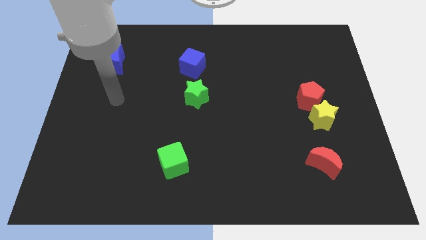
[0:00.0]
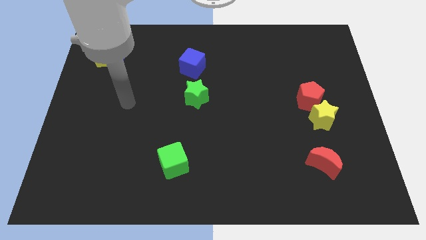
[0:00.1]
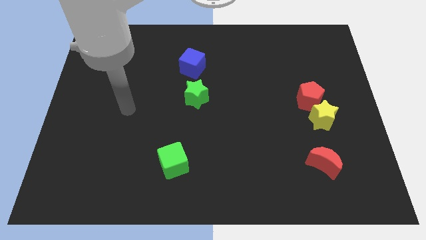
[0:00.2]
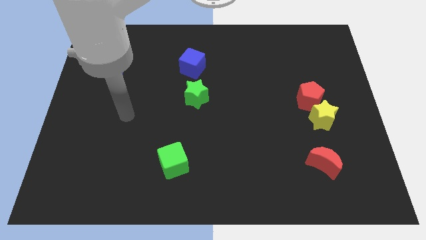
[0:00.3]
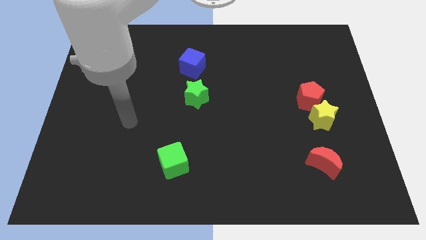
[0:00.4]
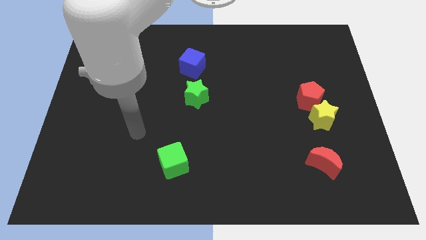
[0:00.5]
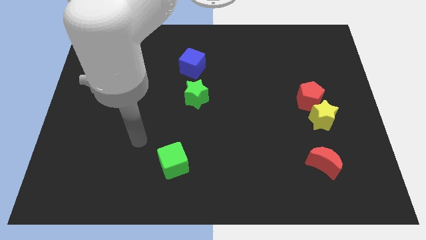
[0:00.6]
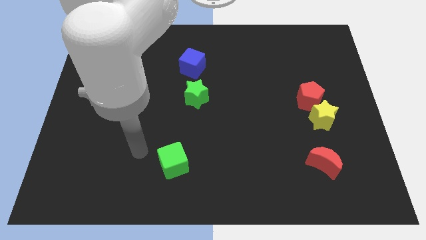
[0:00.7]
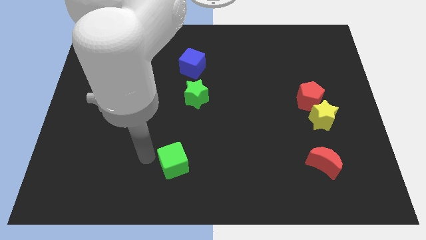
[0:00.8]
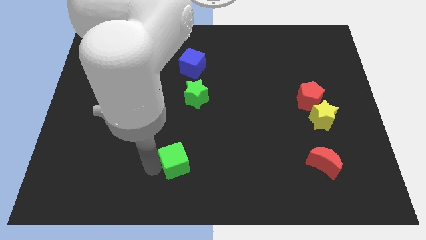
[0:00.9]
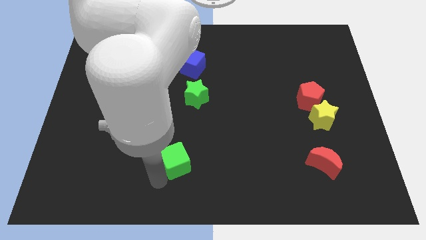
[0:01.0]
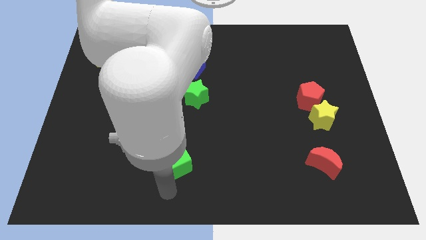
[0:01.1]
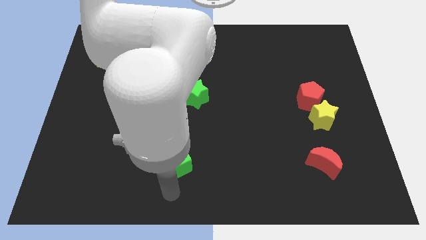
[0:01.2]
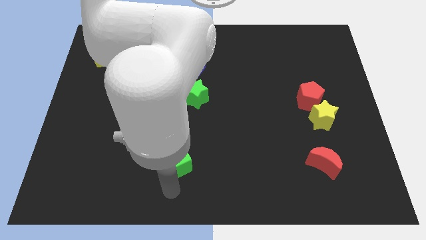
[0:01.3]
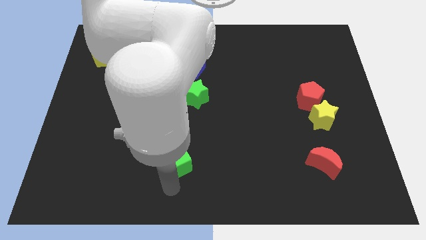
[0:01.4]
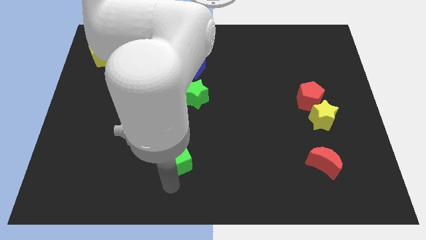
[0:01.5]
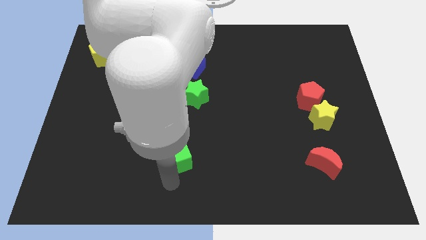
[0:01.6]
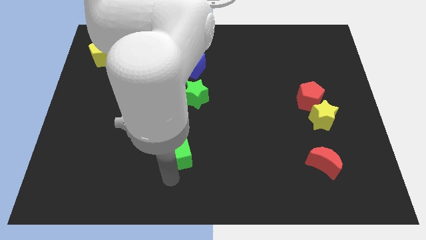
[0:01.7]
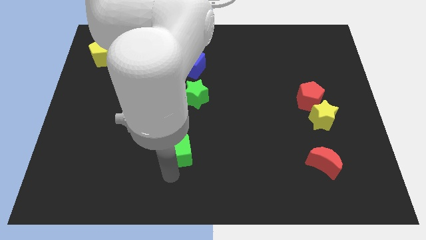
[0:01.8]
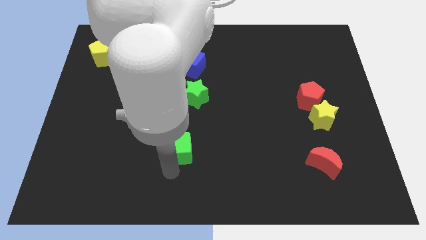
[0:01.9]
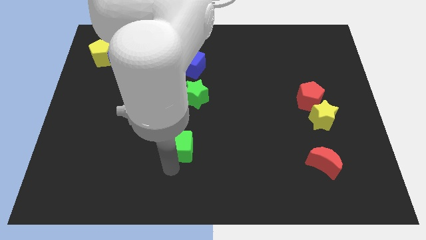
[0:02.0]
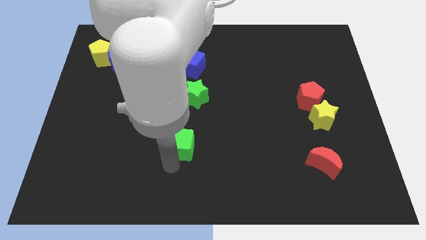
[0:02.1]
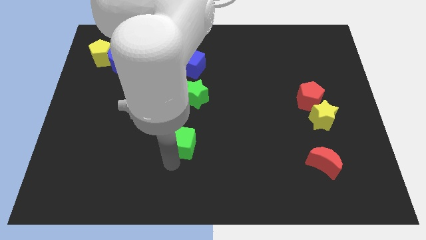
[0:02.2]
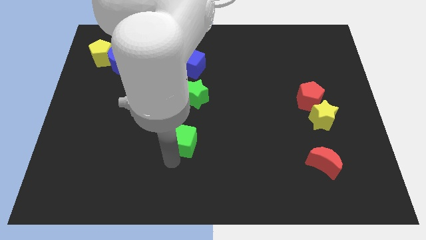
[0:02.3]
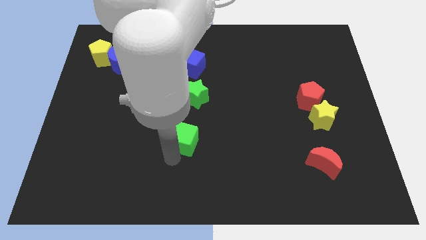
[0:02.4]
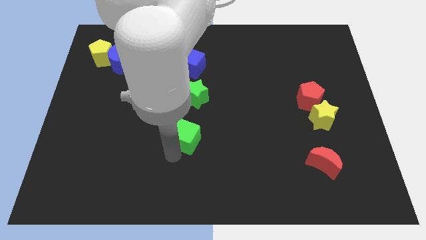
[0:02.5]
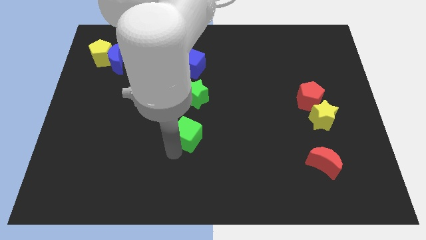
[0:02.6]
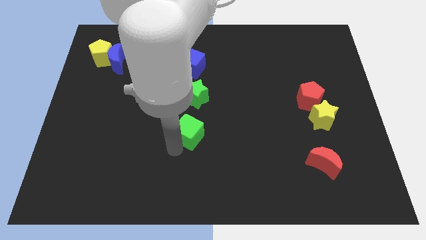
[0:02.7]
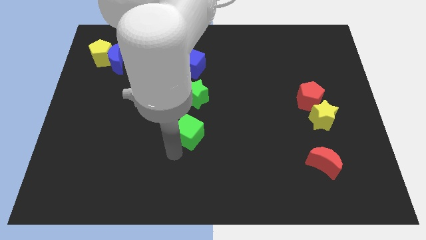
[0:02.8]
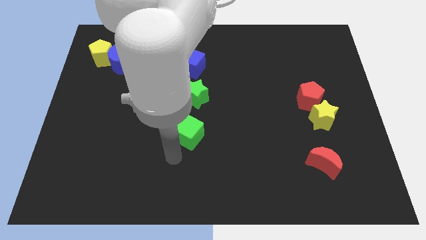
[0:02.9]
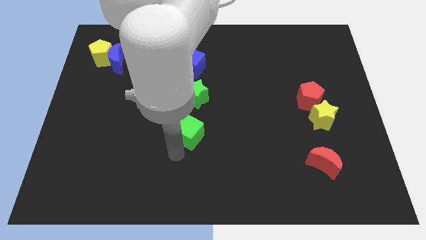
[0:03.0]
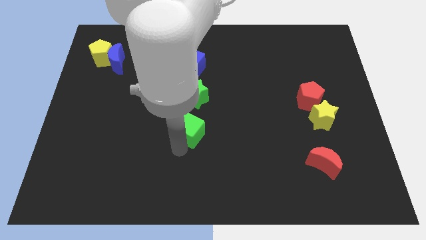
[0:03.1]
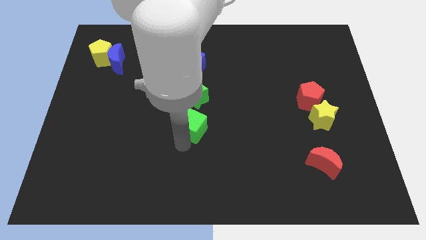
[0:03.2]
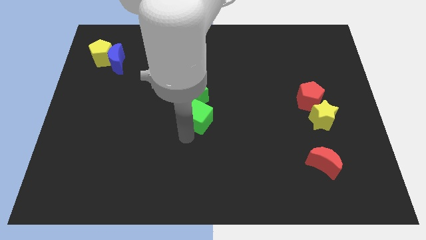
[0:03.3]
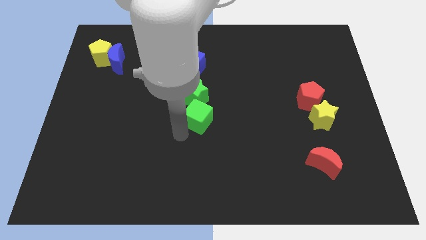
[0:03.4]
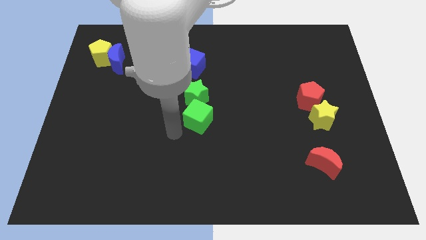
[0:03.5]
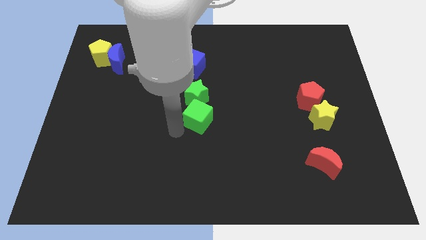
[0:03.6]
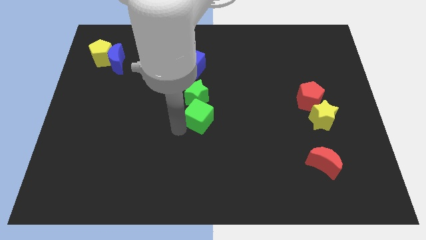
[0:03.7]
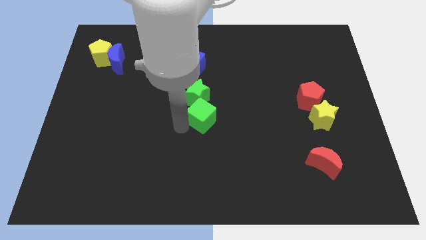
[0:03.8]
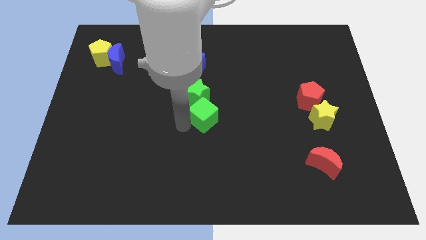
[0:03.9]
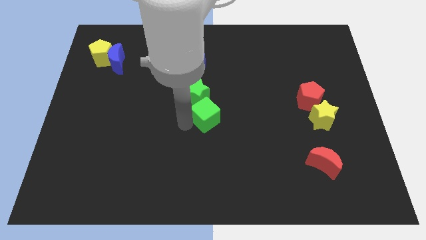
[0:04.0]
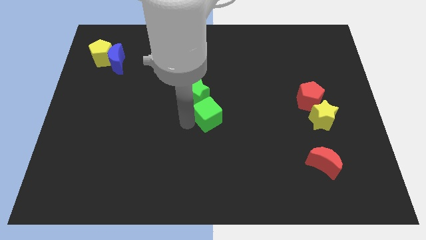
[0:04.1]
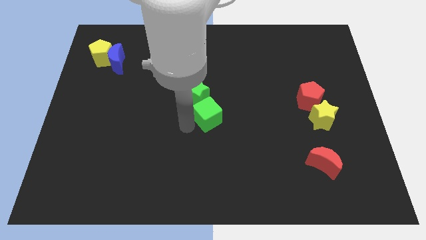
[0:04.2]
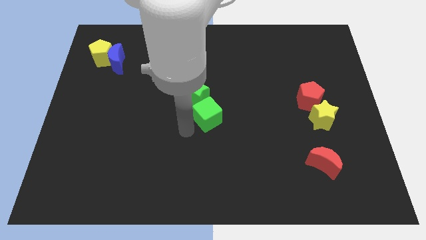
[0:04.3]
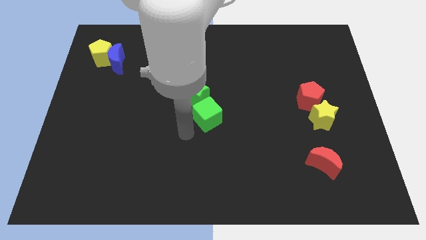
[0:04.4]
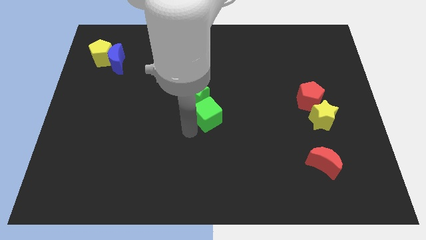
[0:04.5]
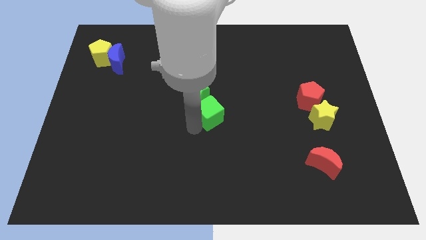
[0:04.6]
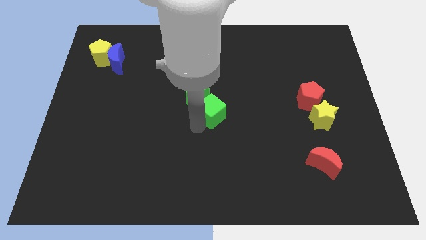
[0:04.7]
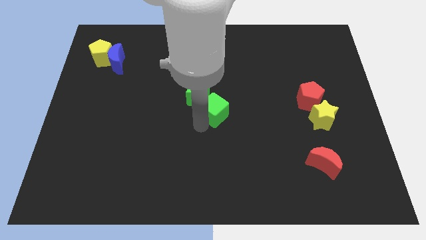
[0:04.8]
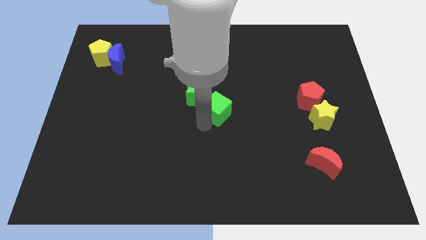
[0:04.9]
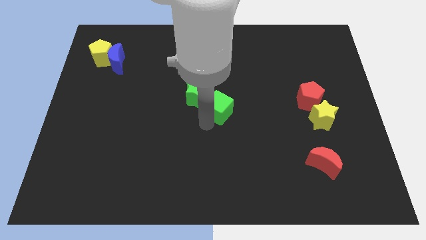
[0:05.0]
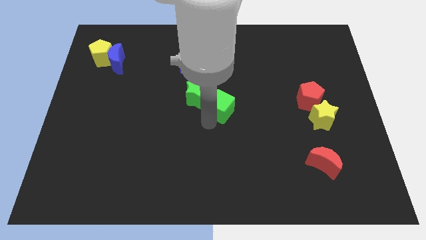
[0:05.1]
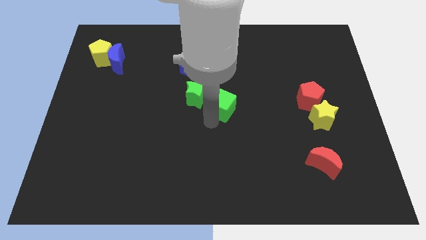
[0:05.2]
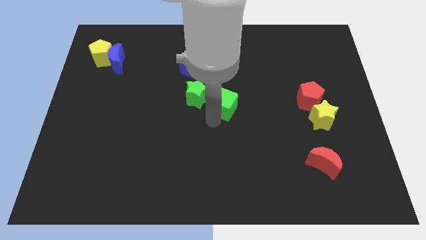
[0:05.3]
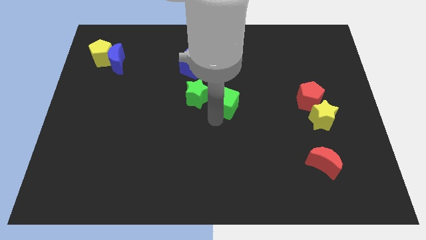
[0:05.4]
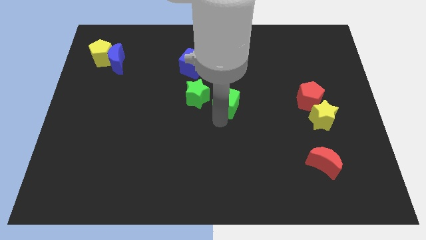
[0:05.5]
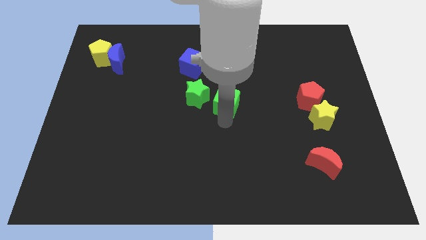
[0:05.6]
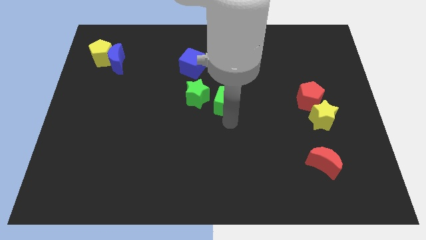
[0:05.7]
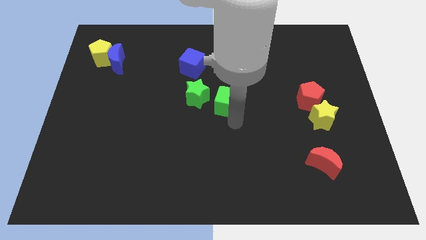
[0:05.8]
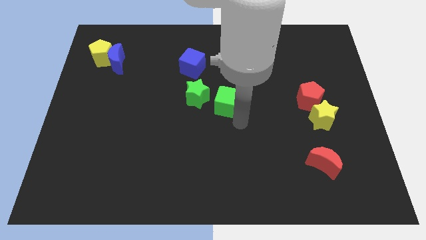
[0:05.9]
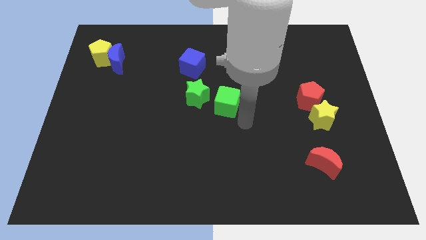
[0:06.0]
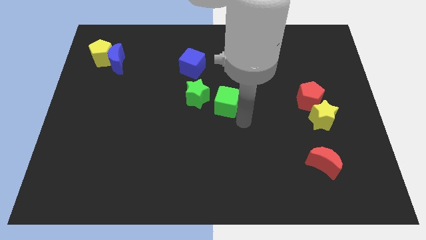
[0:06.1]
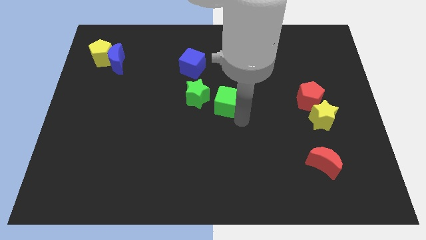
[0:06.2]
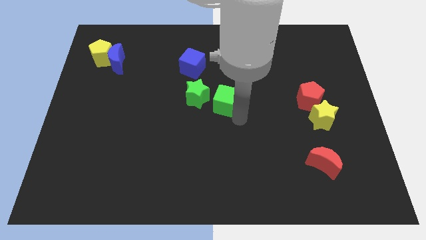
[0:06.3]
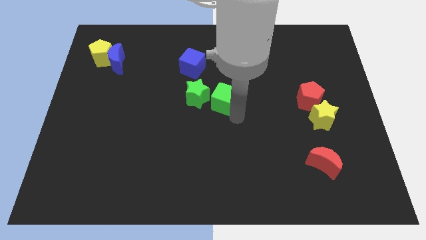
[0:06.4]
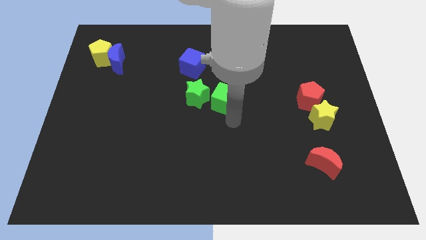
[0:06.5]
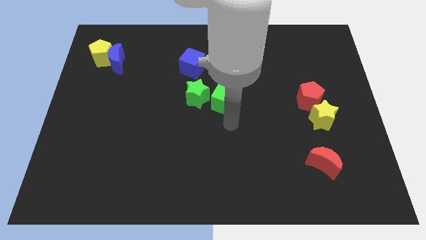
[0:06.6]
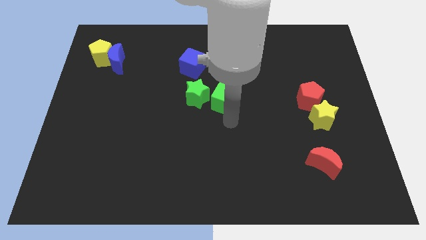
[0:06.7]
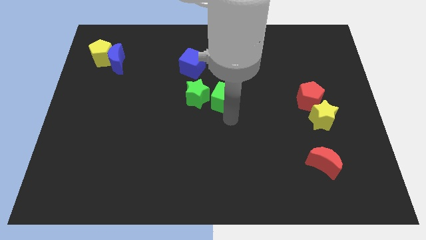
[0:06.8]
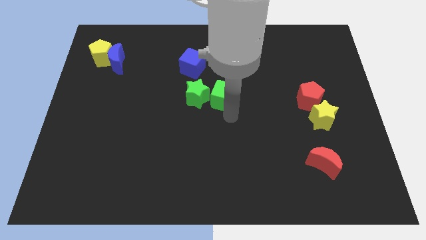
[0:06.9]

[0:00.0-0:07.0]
push the green cube diagonally up and to the right of the green star

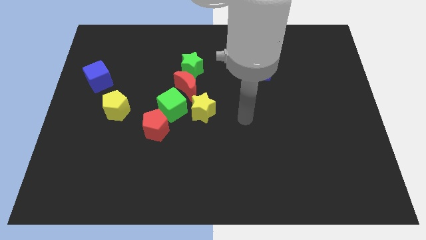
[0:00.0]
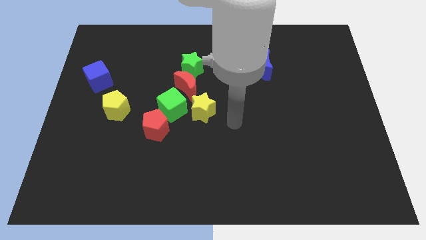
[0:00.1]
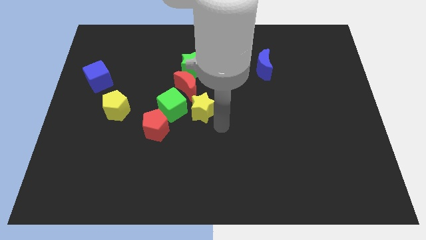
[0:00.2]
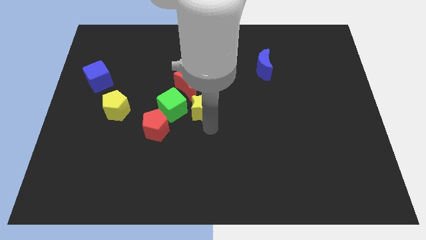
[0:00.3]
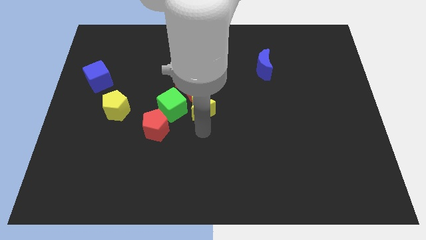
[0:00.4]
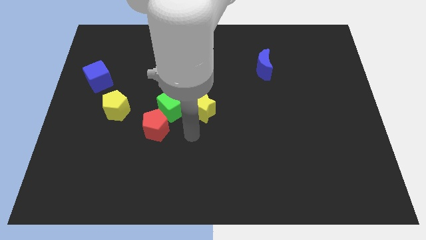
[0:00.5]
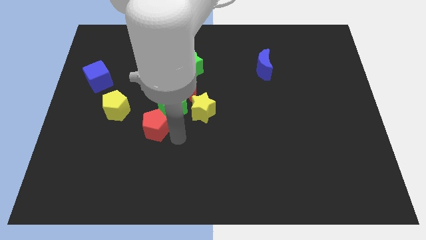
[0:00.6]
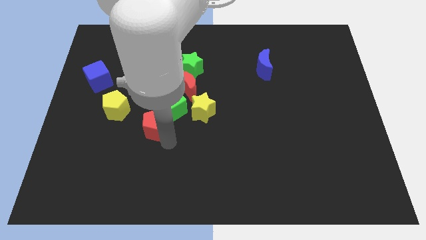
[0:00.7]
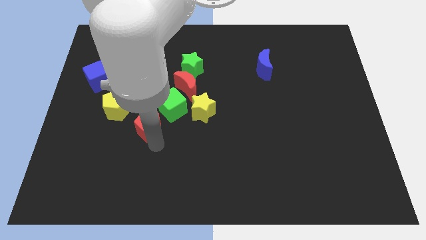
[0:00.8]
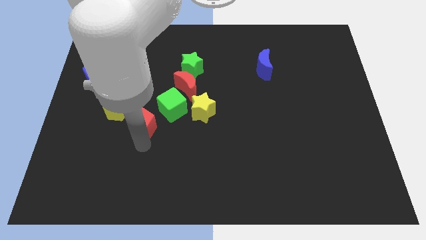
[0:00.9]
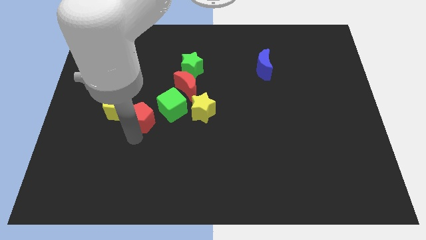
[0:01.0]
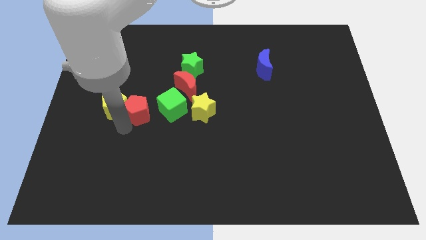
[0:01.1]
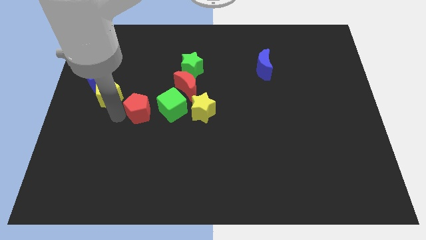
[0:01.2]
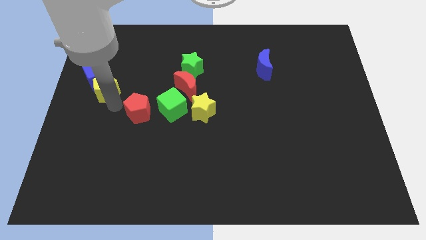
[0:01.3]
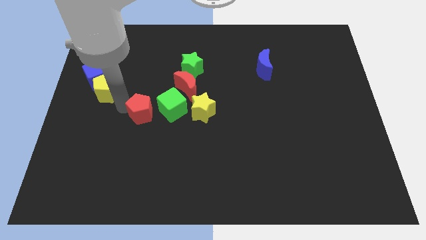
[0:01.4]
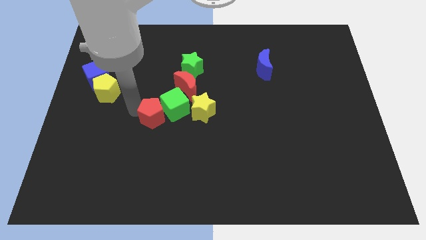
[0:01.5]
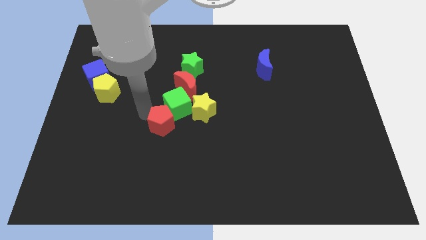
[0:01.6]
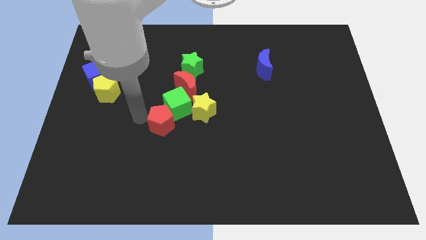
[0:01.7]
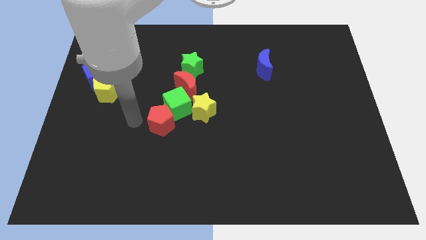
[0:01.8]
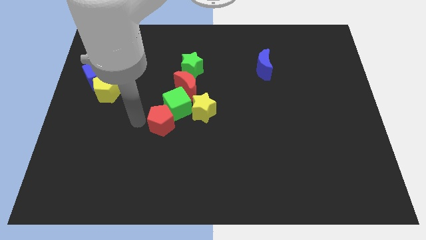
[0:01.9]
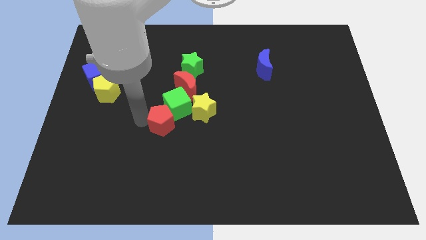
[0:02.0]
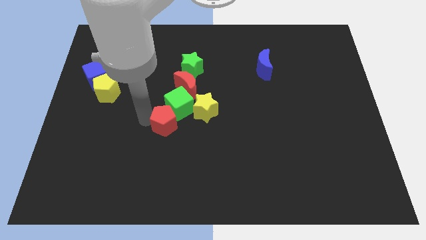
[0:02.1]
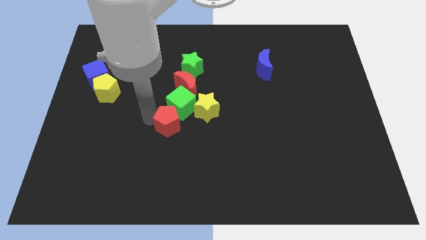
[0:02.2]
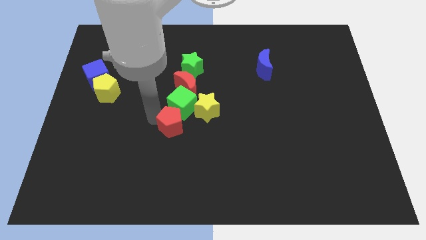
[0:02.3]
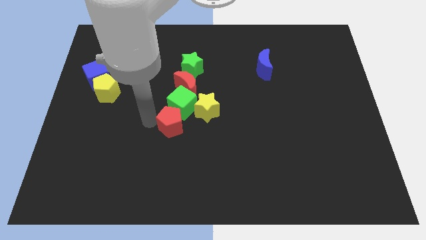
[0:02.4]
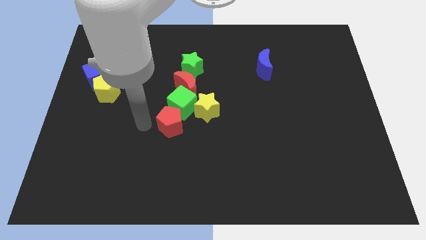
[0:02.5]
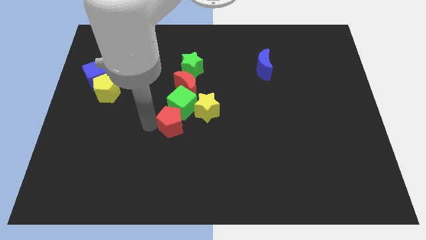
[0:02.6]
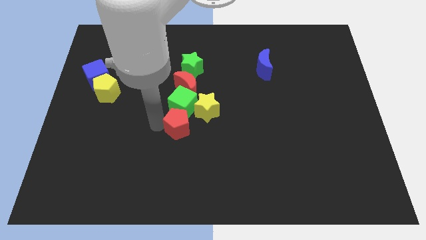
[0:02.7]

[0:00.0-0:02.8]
push the red pentagon to the bottom right side of the green cube
